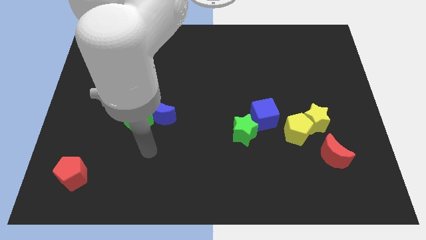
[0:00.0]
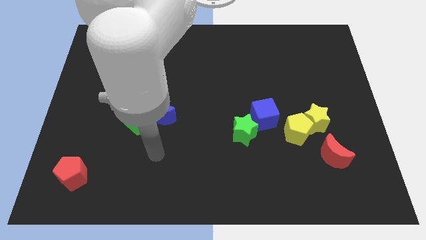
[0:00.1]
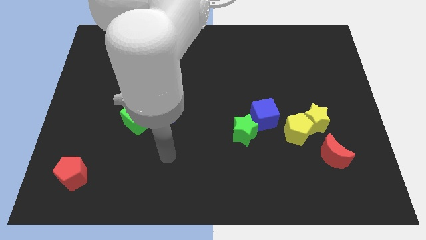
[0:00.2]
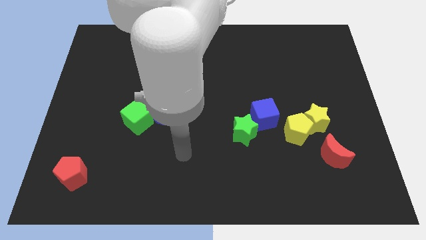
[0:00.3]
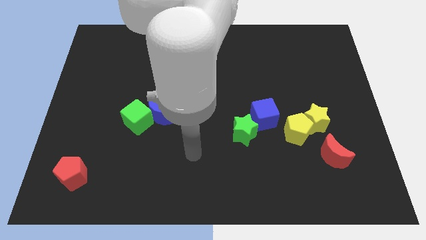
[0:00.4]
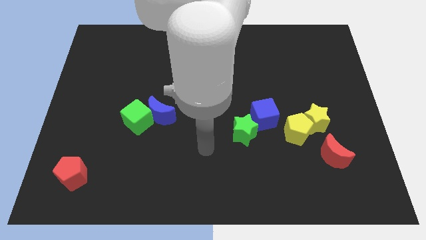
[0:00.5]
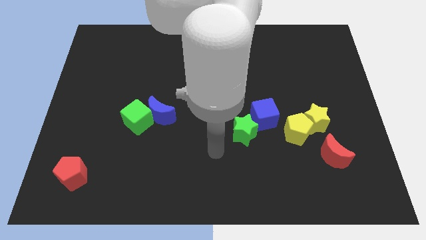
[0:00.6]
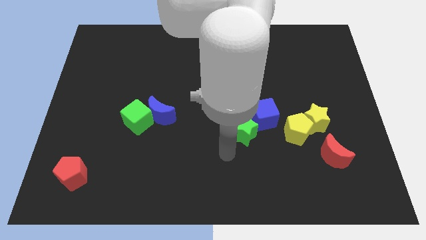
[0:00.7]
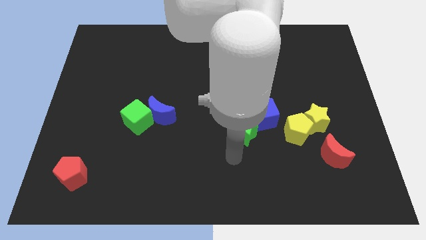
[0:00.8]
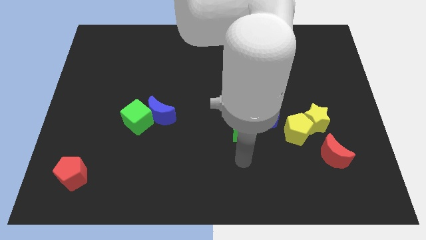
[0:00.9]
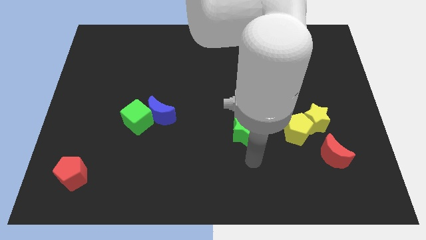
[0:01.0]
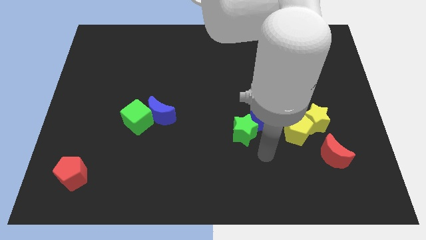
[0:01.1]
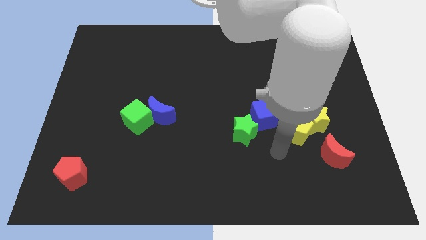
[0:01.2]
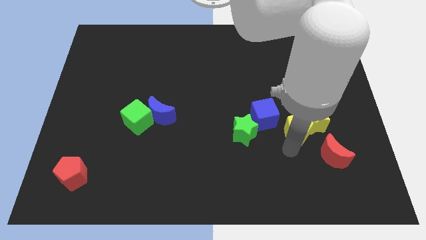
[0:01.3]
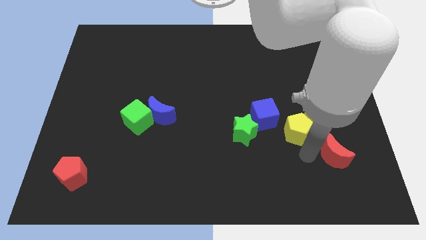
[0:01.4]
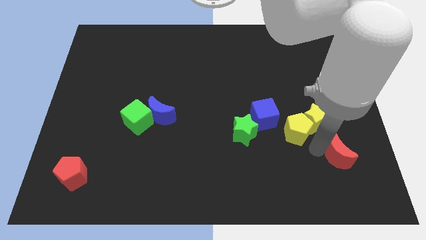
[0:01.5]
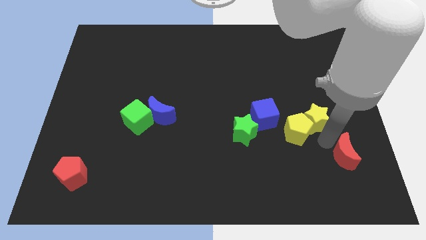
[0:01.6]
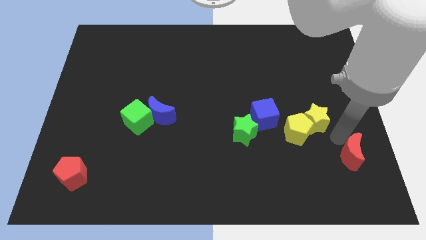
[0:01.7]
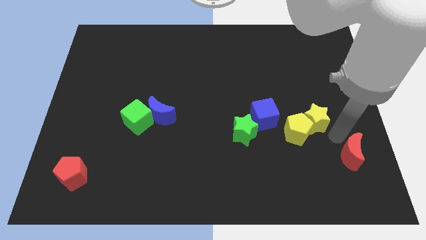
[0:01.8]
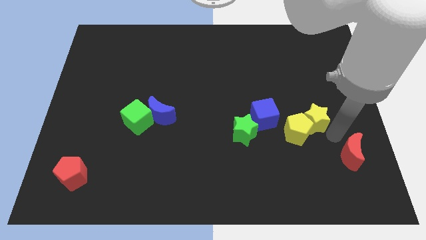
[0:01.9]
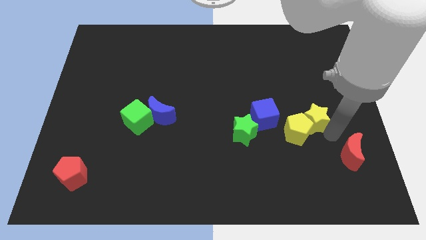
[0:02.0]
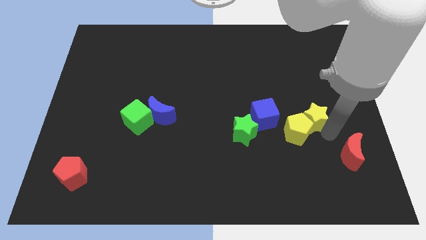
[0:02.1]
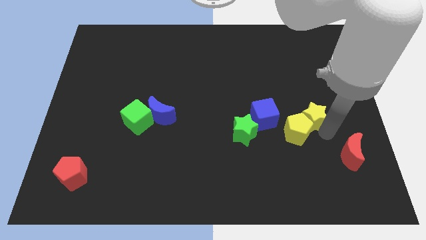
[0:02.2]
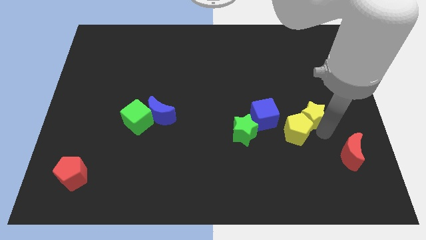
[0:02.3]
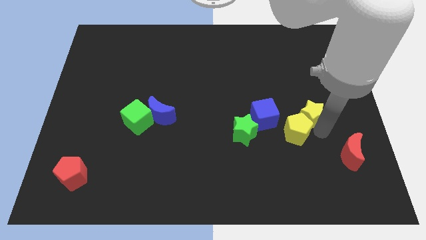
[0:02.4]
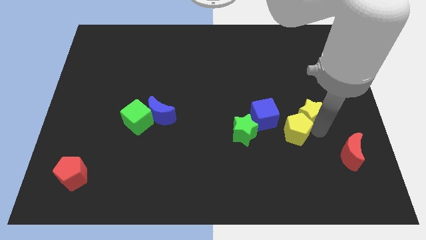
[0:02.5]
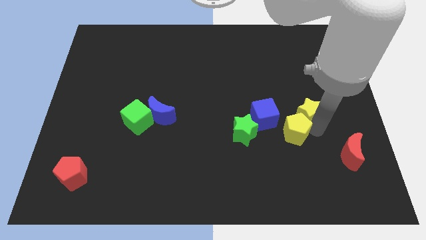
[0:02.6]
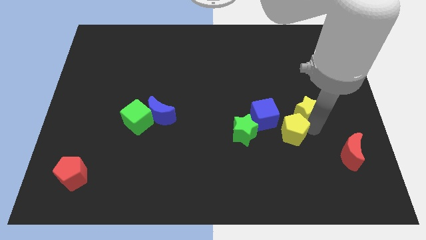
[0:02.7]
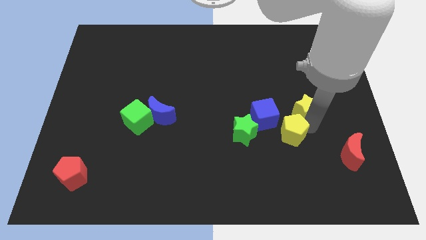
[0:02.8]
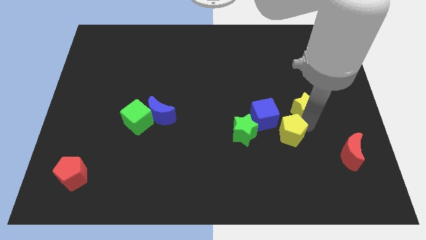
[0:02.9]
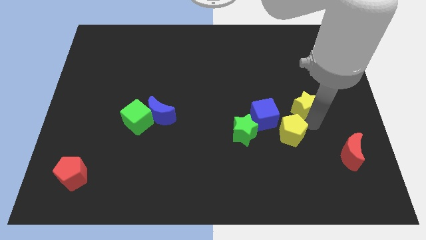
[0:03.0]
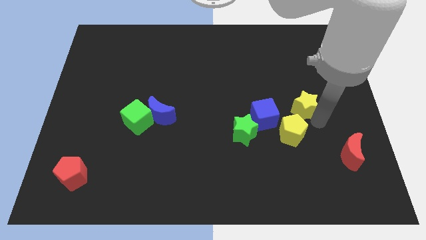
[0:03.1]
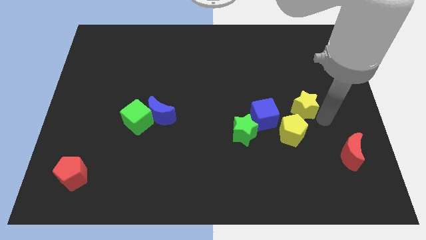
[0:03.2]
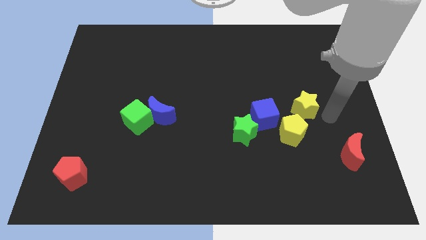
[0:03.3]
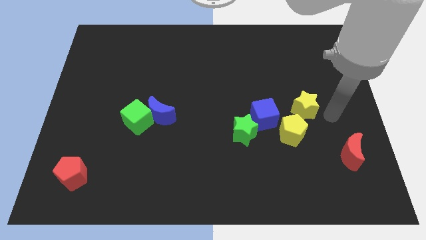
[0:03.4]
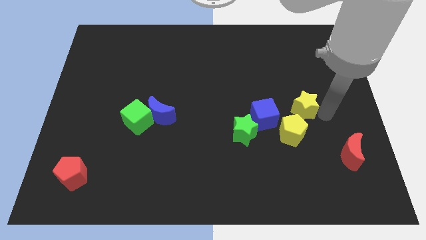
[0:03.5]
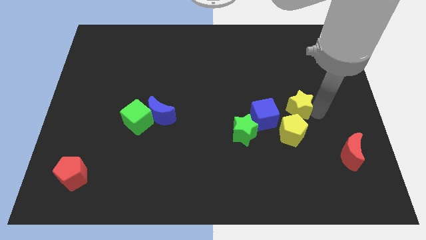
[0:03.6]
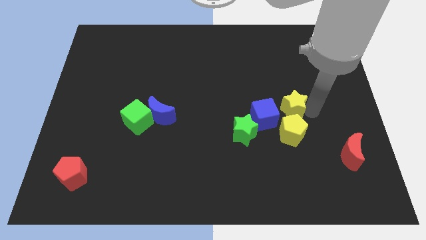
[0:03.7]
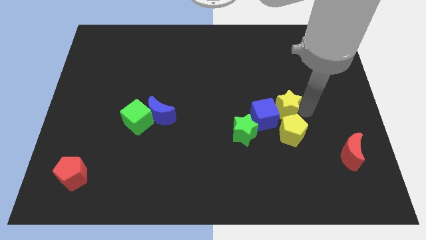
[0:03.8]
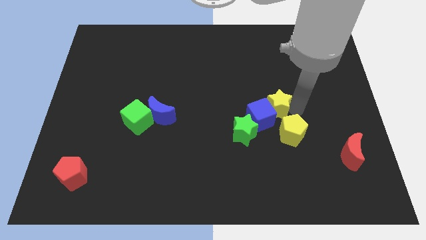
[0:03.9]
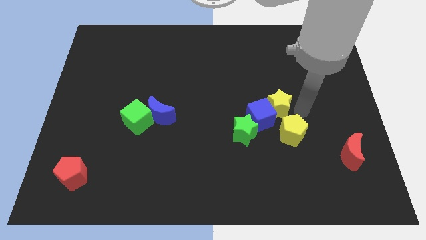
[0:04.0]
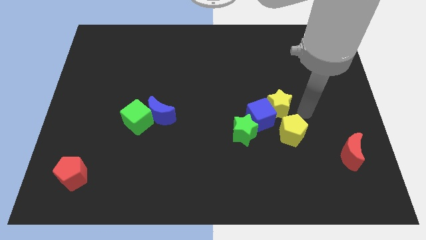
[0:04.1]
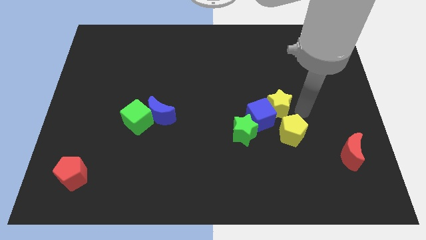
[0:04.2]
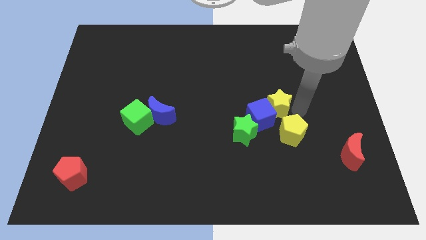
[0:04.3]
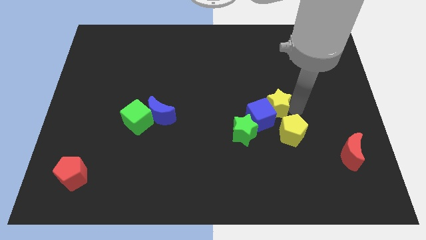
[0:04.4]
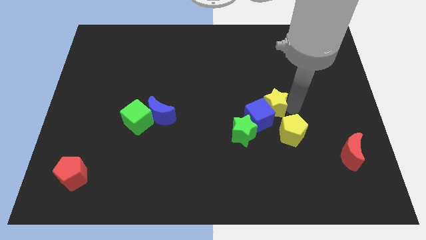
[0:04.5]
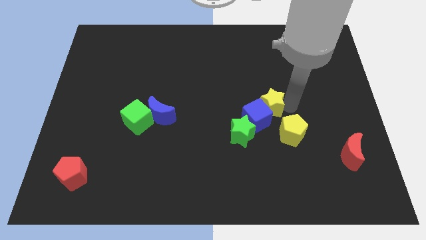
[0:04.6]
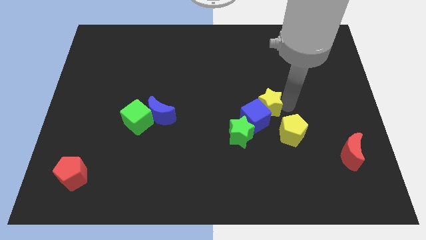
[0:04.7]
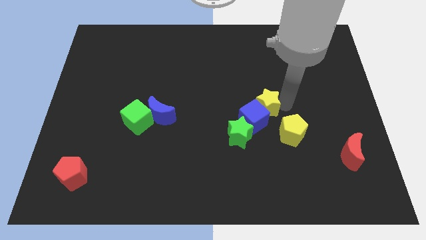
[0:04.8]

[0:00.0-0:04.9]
slide the yellow star to the middle of the board
